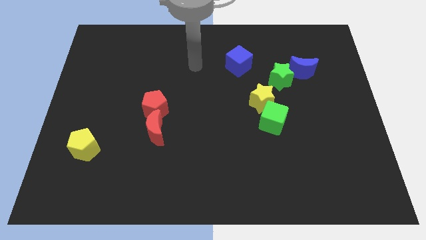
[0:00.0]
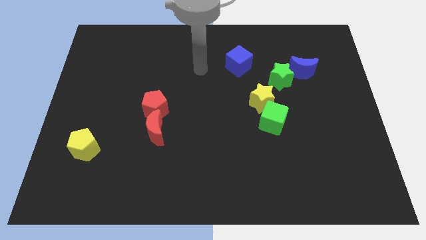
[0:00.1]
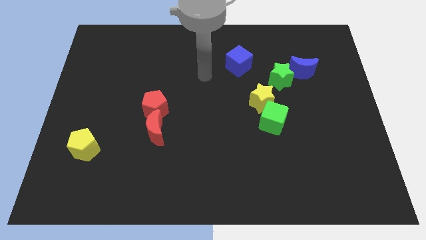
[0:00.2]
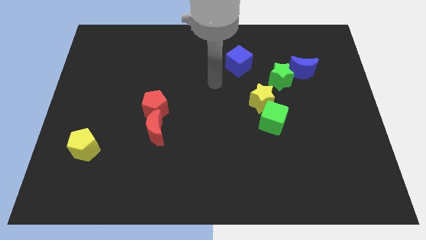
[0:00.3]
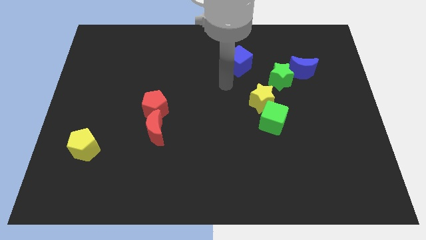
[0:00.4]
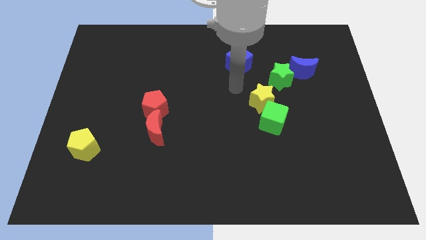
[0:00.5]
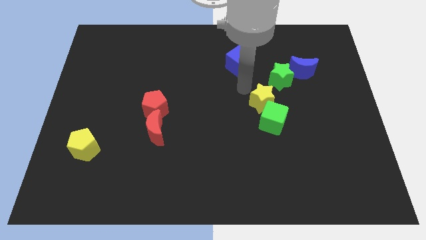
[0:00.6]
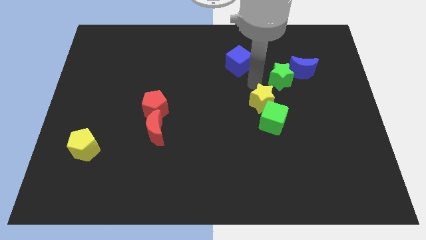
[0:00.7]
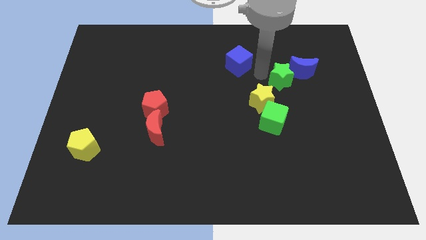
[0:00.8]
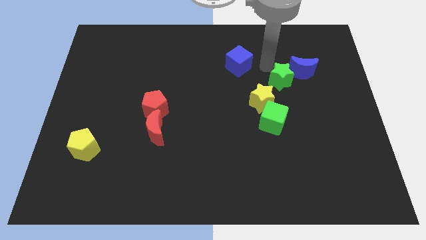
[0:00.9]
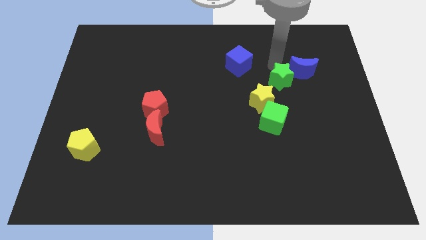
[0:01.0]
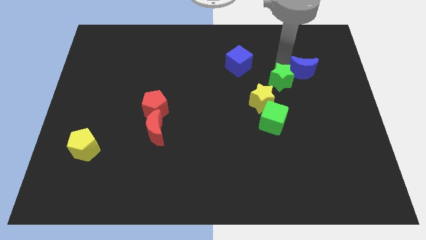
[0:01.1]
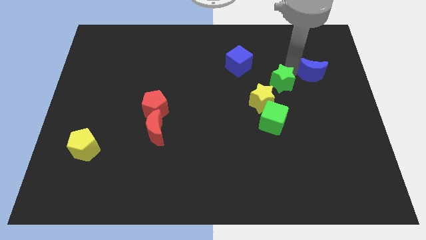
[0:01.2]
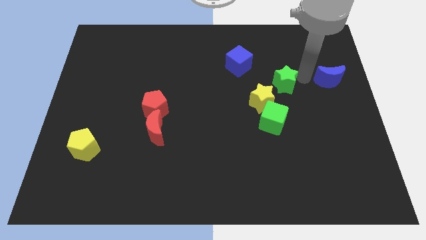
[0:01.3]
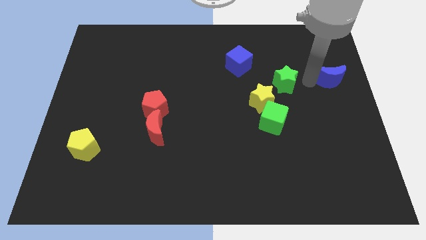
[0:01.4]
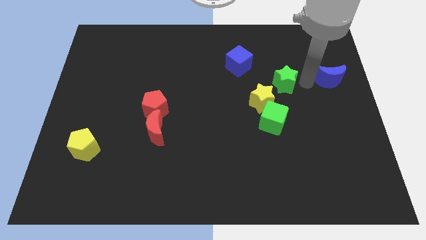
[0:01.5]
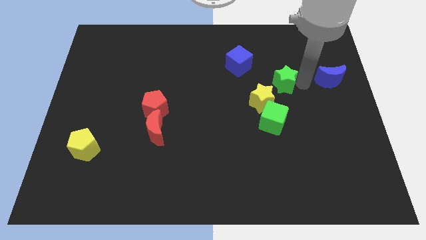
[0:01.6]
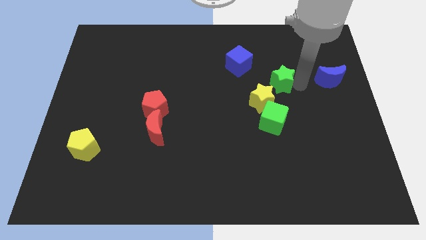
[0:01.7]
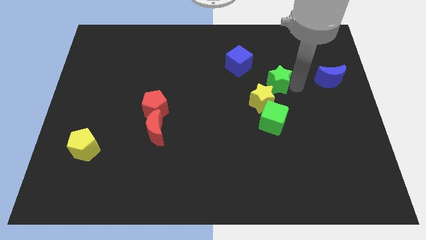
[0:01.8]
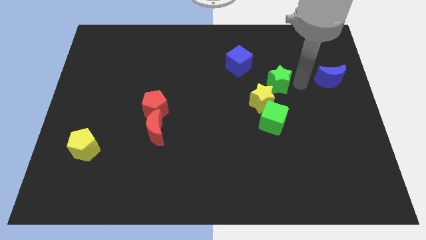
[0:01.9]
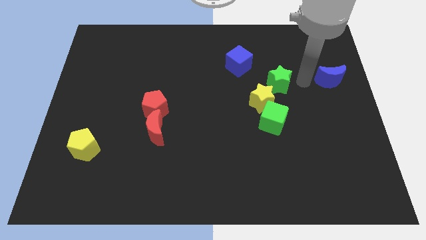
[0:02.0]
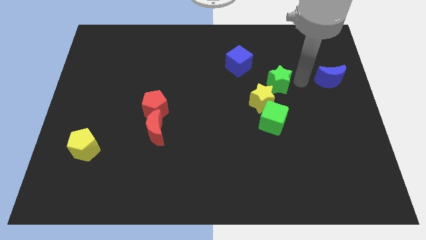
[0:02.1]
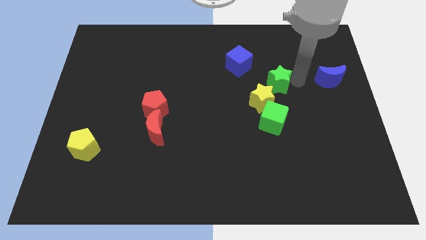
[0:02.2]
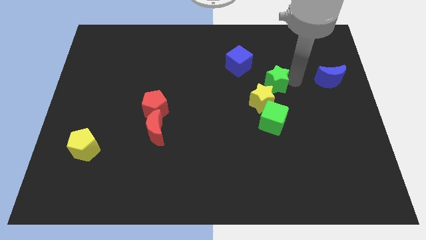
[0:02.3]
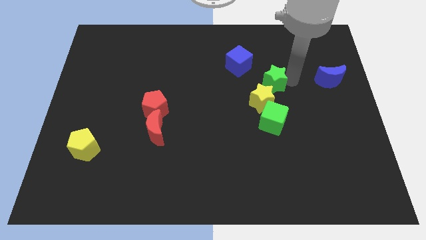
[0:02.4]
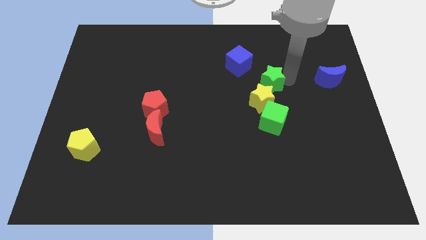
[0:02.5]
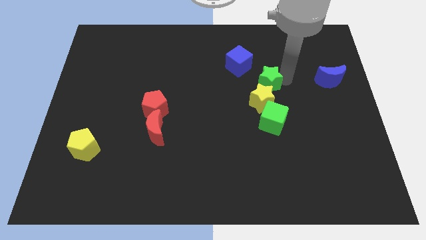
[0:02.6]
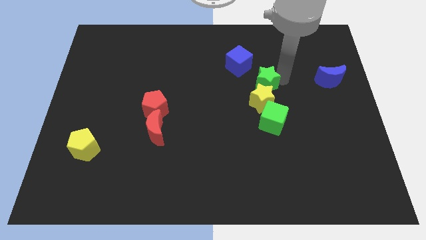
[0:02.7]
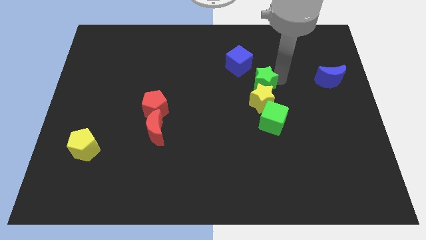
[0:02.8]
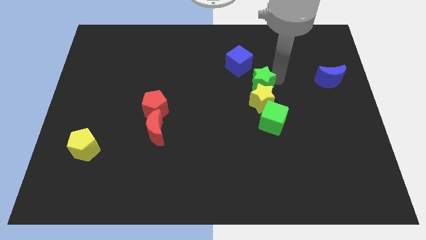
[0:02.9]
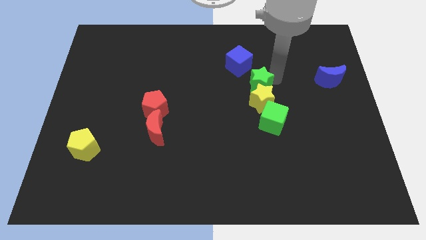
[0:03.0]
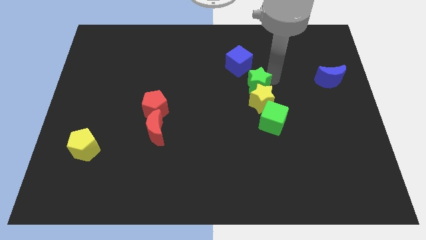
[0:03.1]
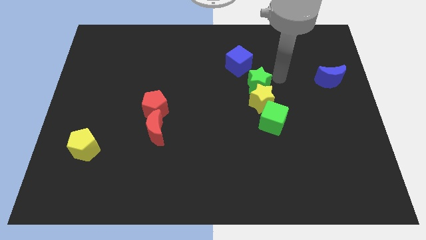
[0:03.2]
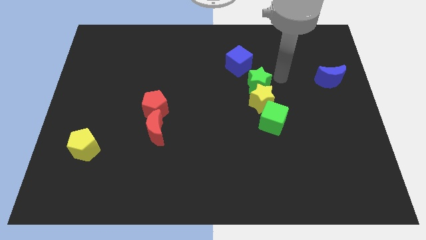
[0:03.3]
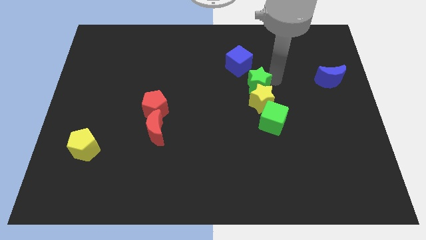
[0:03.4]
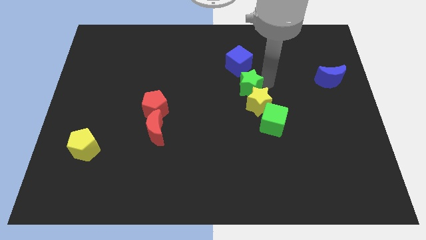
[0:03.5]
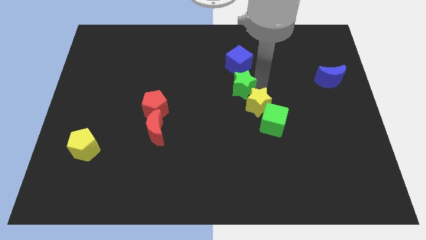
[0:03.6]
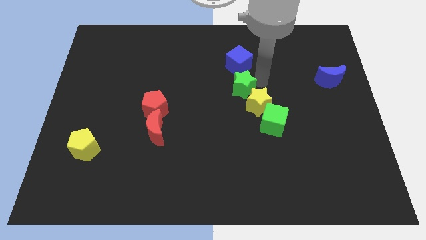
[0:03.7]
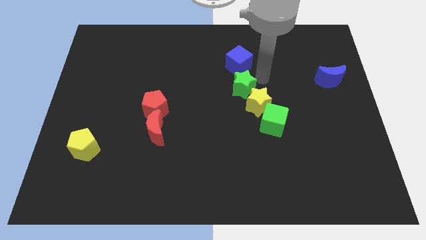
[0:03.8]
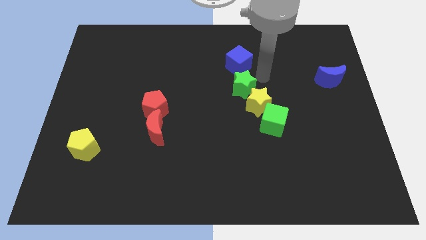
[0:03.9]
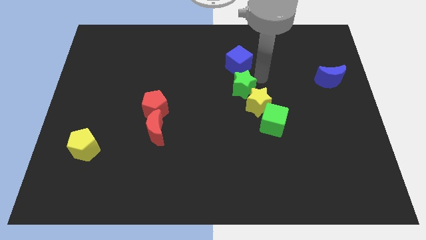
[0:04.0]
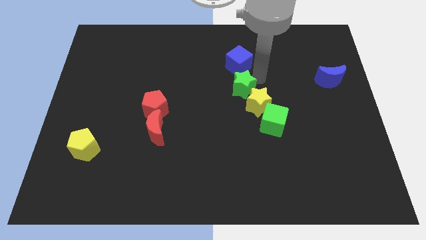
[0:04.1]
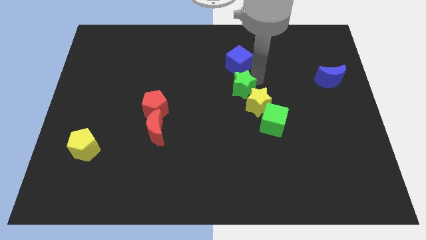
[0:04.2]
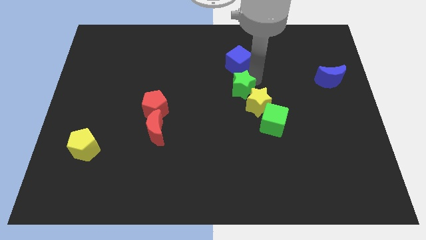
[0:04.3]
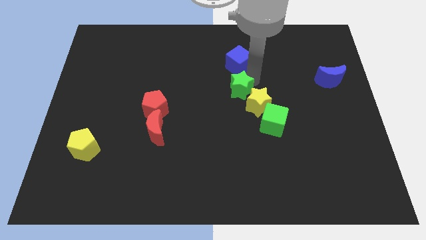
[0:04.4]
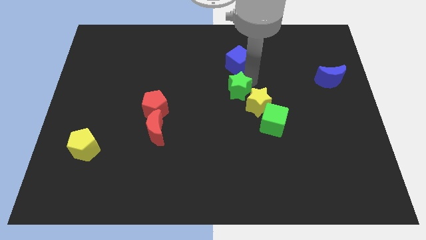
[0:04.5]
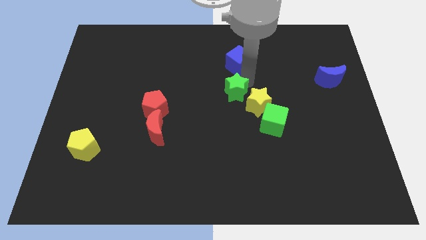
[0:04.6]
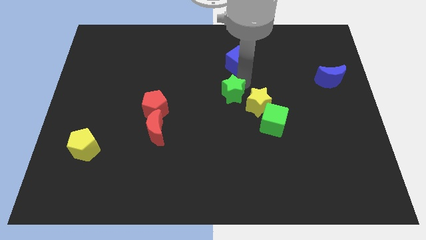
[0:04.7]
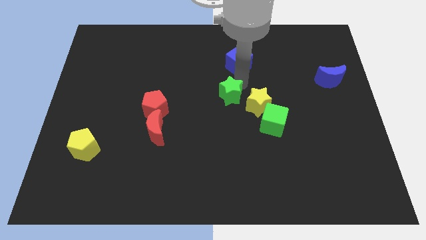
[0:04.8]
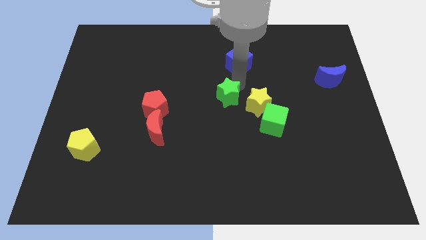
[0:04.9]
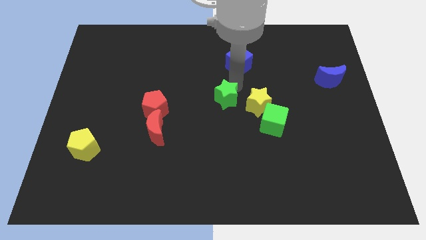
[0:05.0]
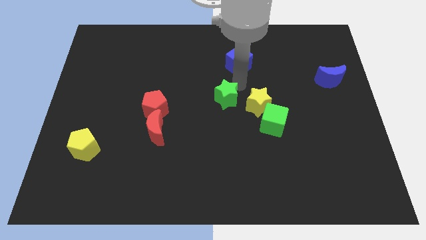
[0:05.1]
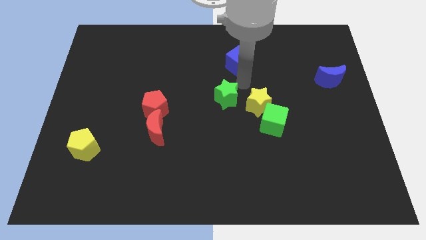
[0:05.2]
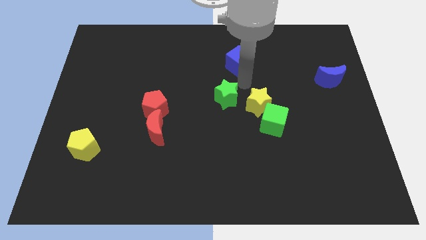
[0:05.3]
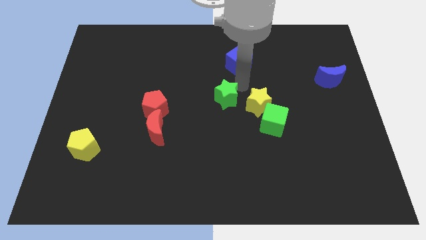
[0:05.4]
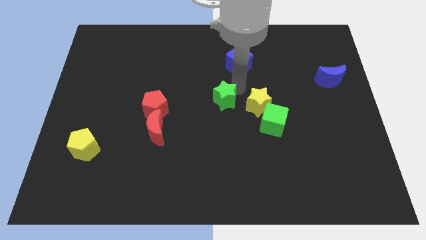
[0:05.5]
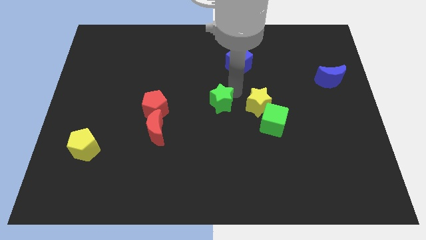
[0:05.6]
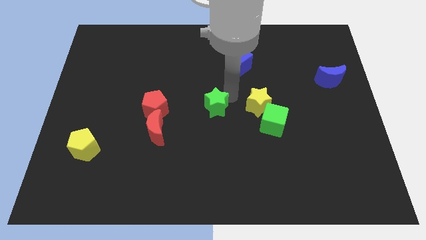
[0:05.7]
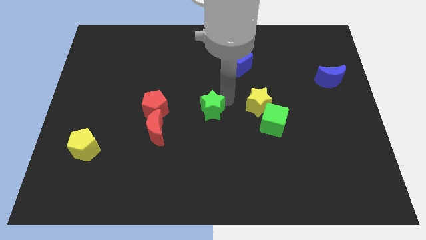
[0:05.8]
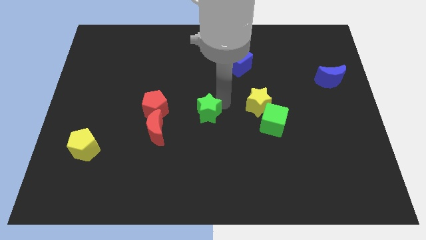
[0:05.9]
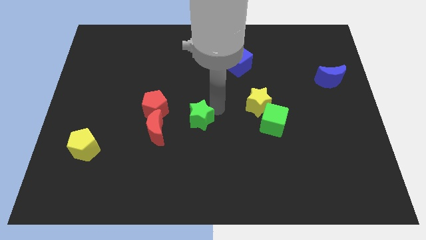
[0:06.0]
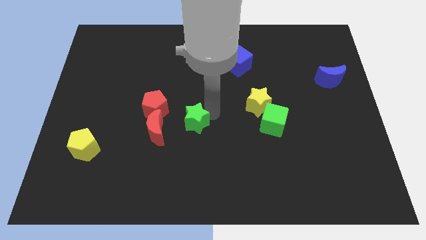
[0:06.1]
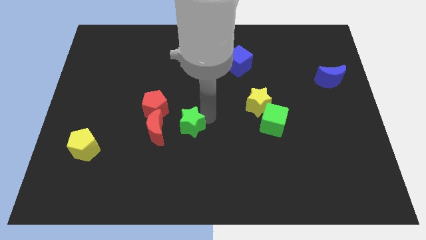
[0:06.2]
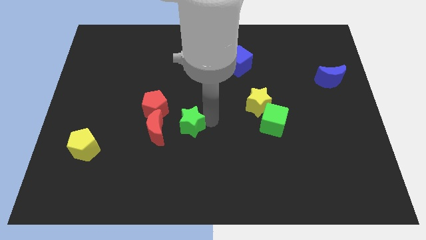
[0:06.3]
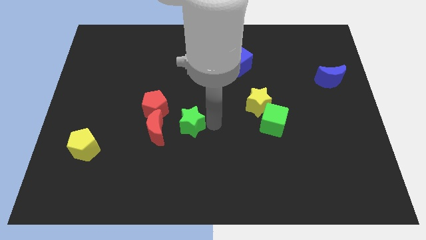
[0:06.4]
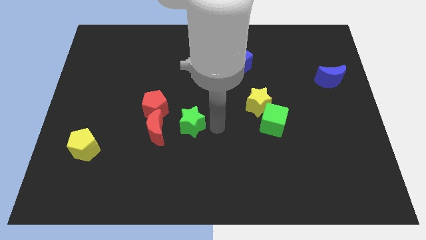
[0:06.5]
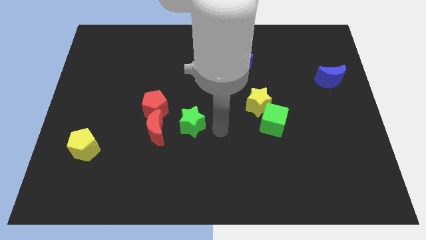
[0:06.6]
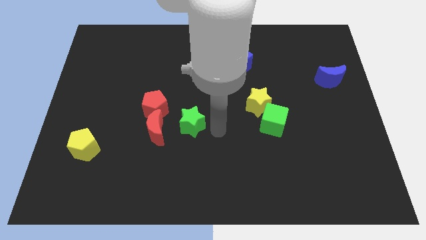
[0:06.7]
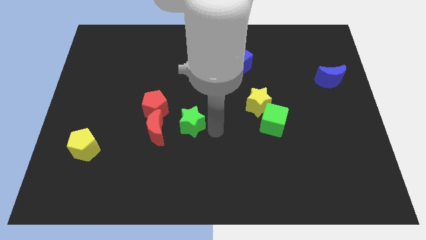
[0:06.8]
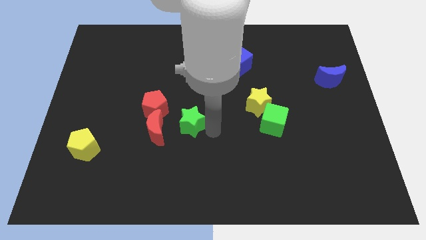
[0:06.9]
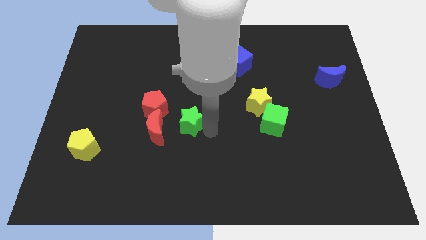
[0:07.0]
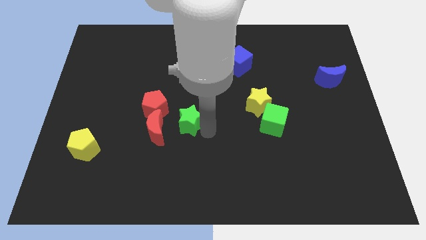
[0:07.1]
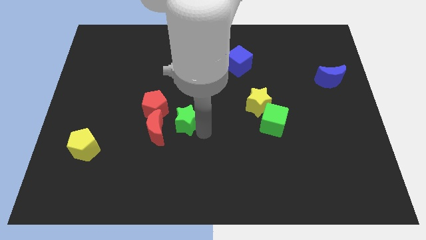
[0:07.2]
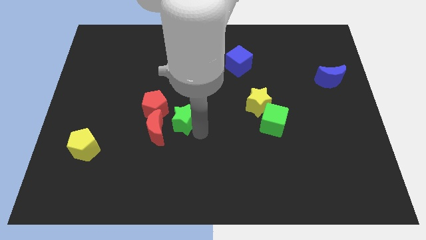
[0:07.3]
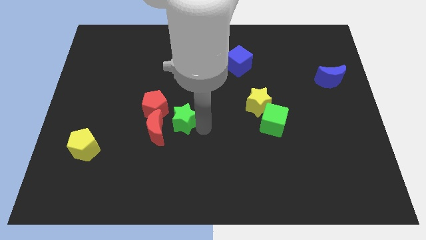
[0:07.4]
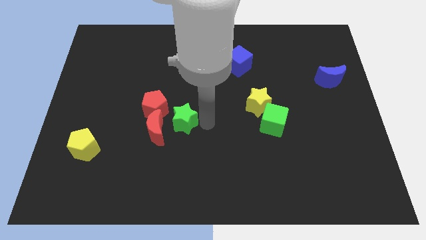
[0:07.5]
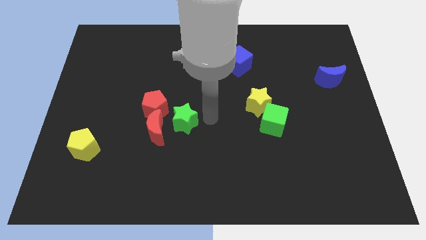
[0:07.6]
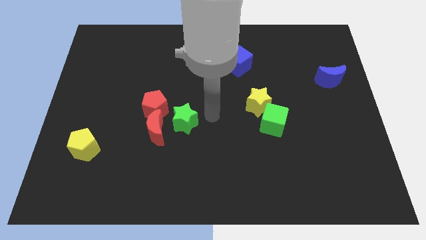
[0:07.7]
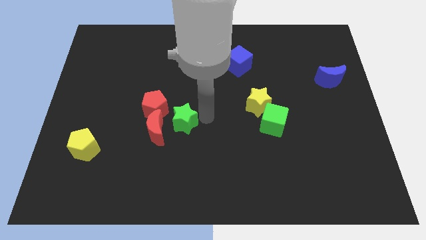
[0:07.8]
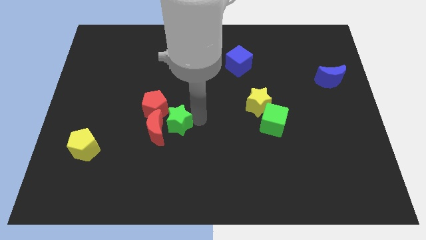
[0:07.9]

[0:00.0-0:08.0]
put the green star close to the red moon
